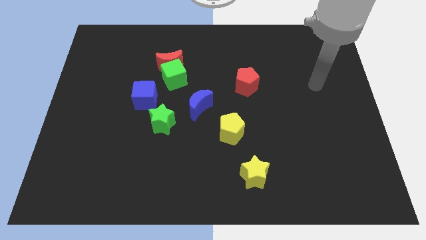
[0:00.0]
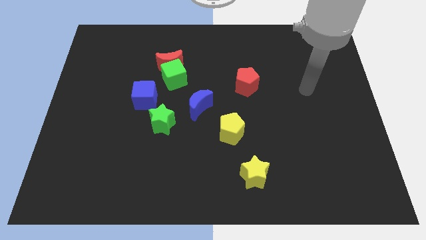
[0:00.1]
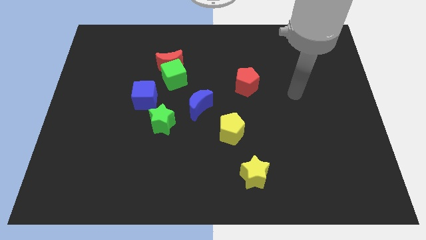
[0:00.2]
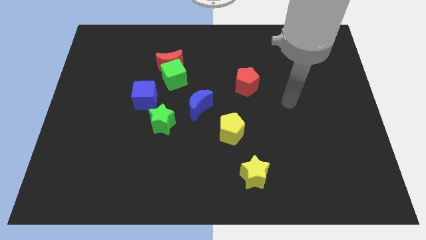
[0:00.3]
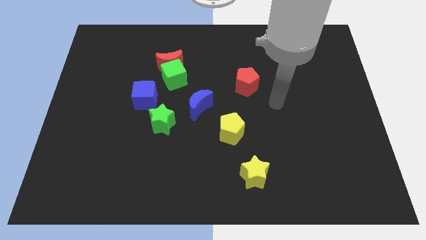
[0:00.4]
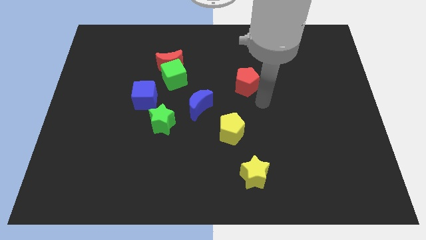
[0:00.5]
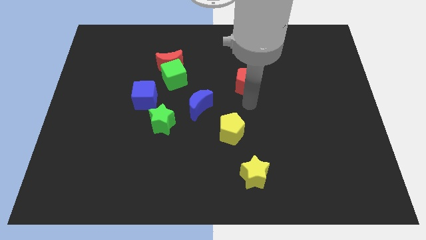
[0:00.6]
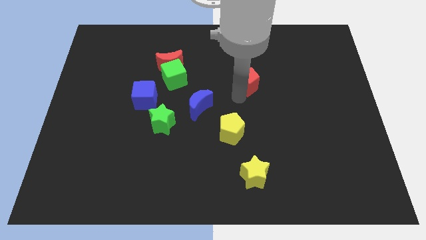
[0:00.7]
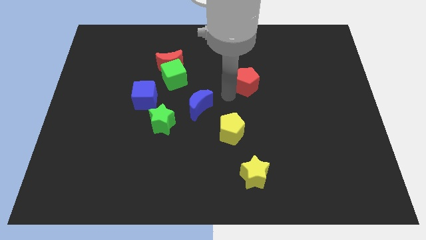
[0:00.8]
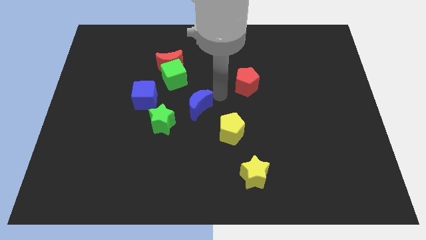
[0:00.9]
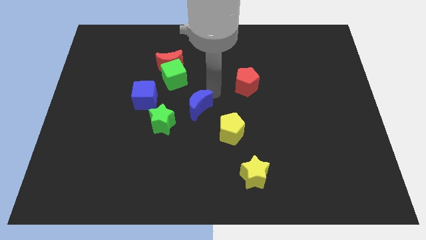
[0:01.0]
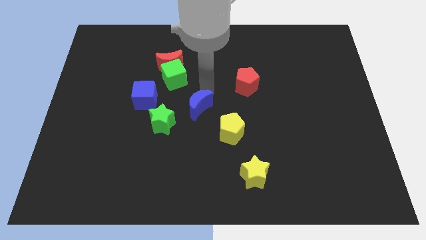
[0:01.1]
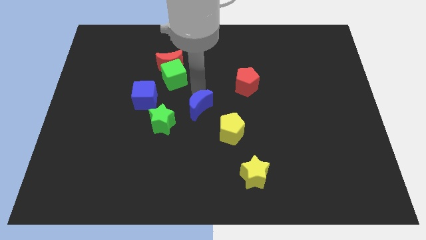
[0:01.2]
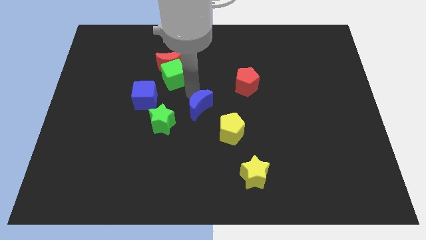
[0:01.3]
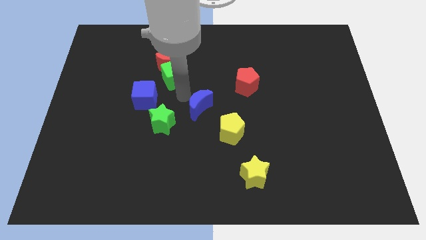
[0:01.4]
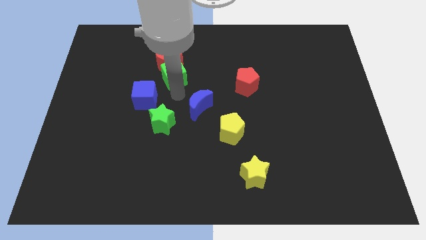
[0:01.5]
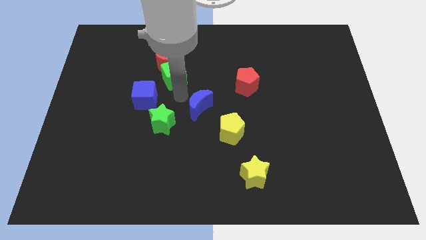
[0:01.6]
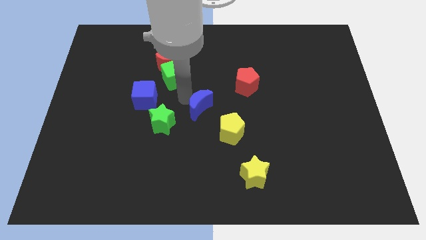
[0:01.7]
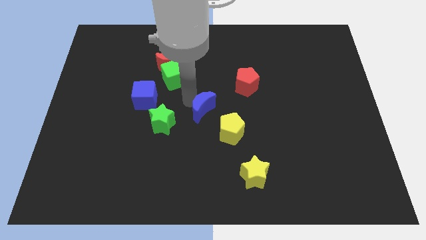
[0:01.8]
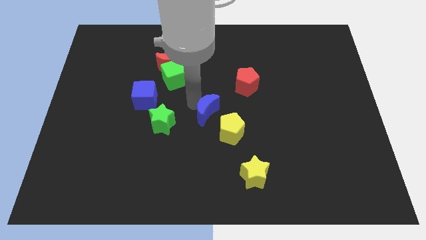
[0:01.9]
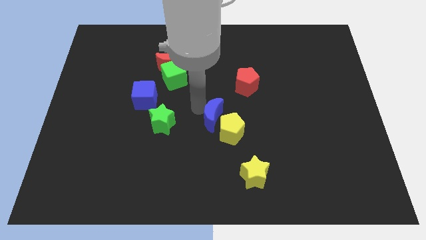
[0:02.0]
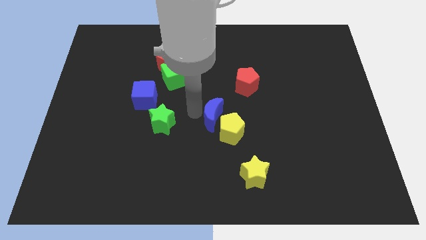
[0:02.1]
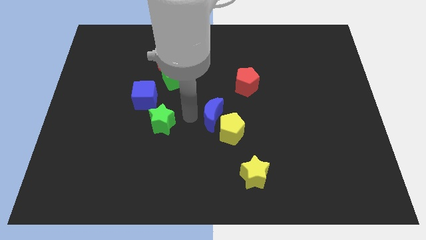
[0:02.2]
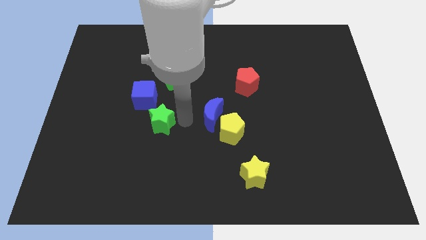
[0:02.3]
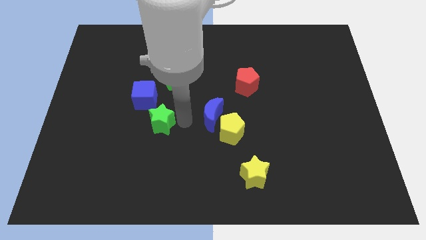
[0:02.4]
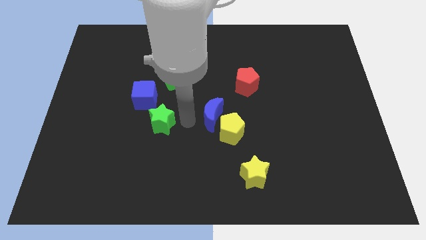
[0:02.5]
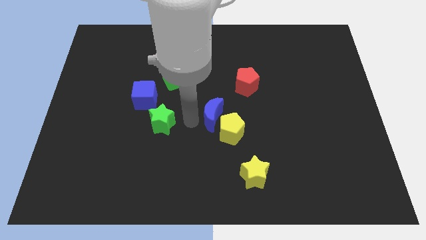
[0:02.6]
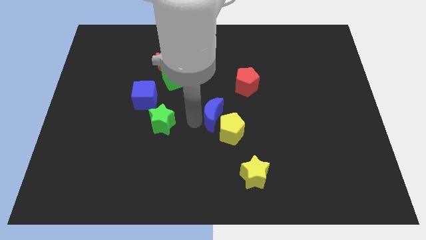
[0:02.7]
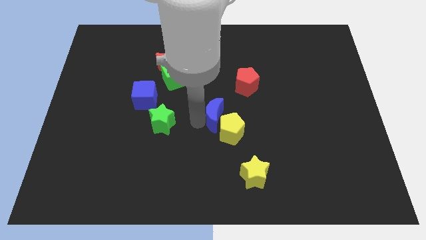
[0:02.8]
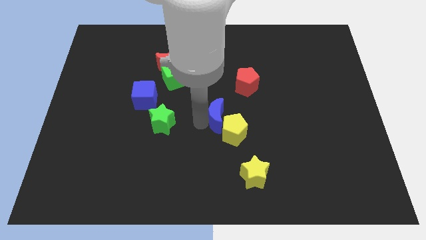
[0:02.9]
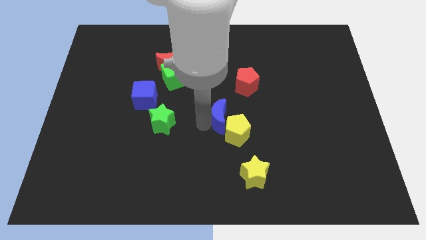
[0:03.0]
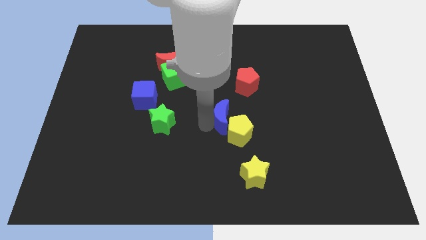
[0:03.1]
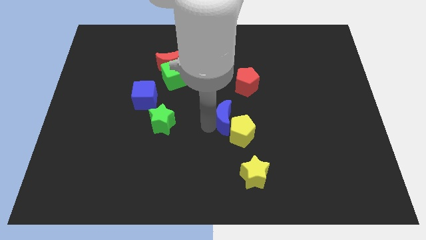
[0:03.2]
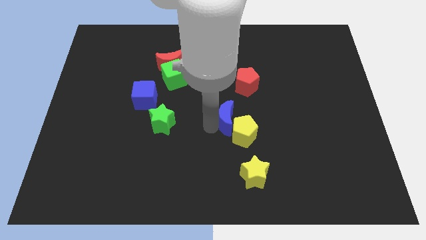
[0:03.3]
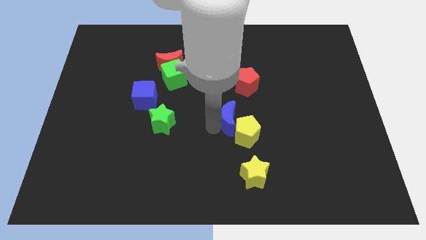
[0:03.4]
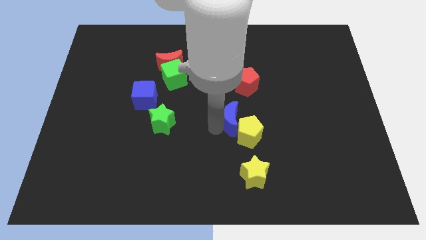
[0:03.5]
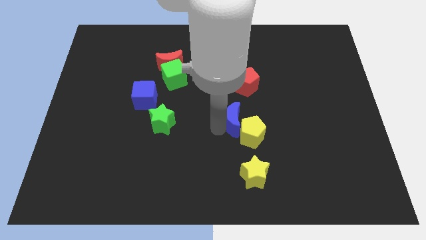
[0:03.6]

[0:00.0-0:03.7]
push the blue moon somewhat to the right

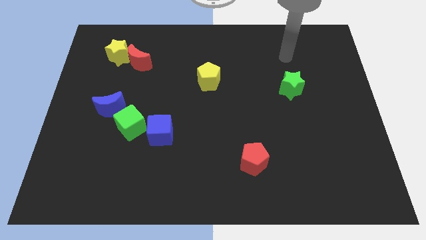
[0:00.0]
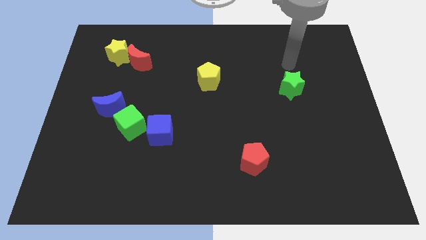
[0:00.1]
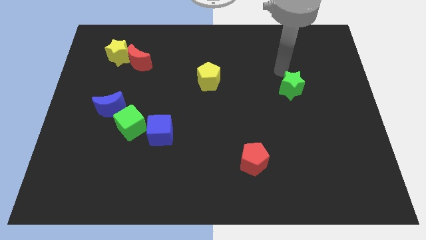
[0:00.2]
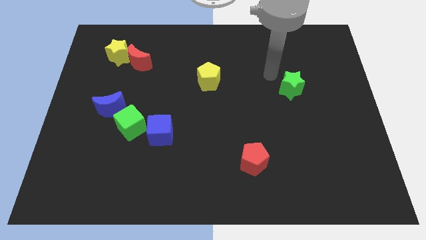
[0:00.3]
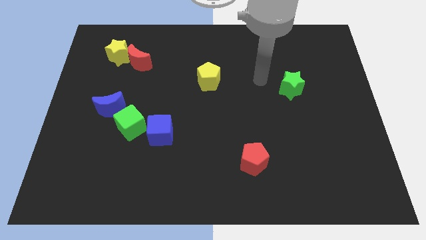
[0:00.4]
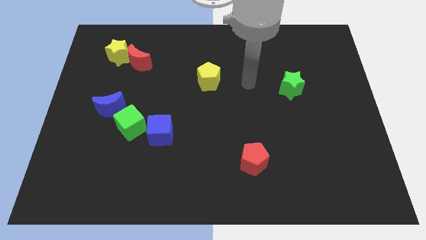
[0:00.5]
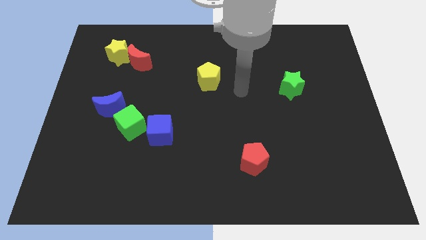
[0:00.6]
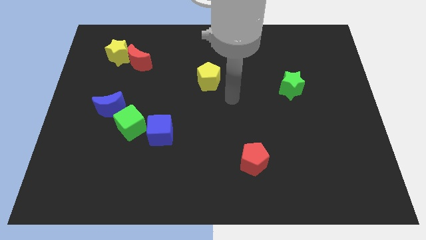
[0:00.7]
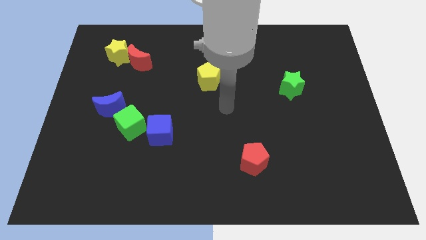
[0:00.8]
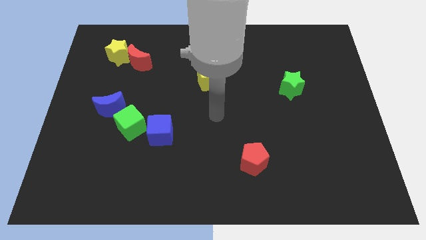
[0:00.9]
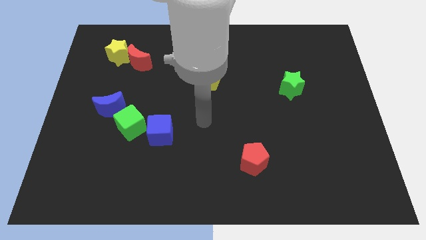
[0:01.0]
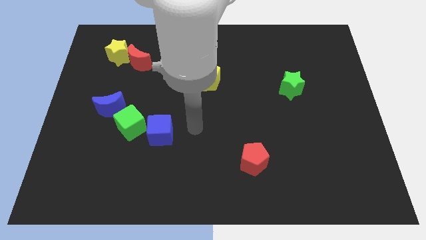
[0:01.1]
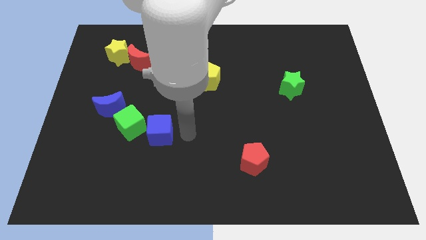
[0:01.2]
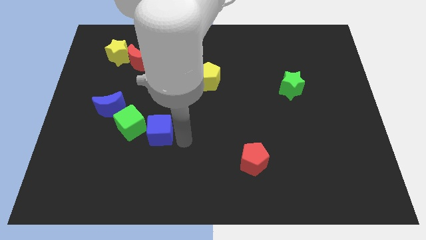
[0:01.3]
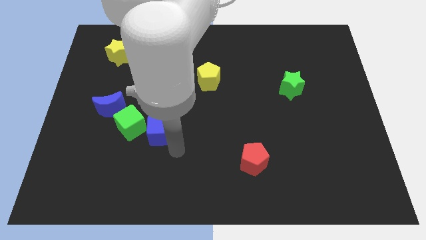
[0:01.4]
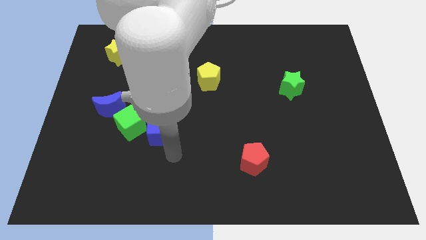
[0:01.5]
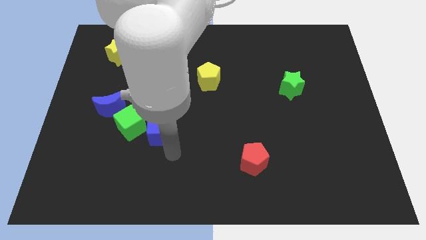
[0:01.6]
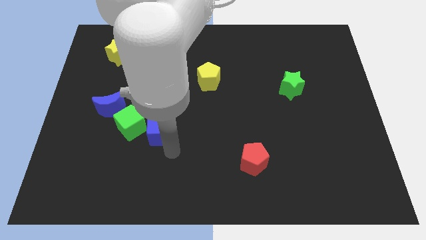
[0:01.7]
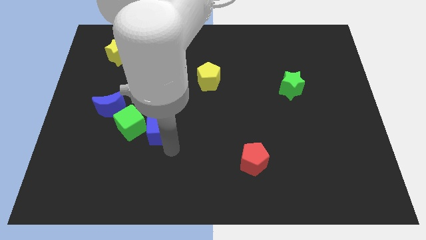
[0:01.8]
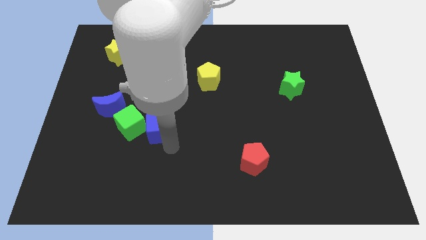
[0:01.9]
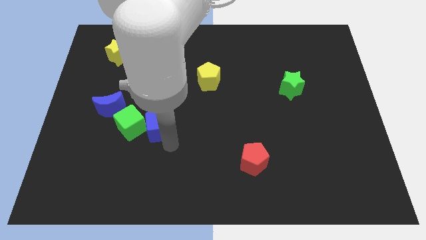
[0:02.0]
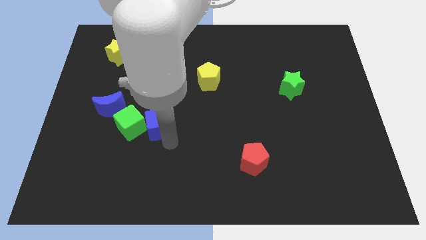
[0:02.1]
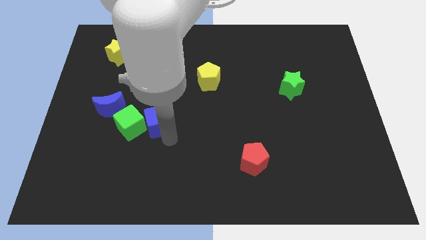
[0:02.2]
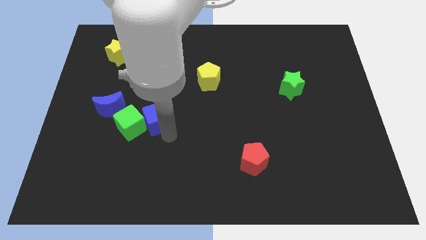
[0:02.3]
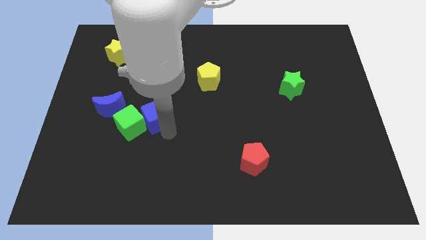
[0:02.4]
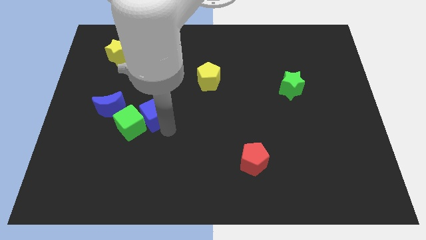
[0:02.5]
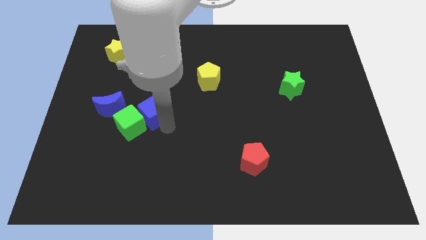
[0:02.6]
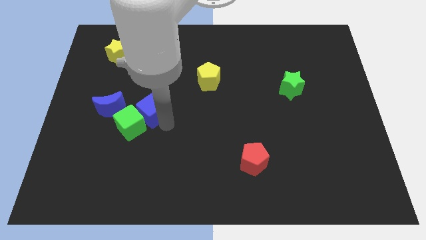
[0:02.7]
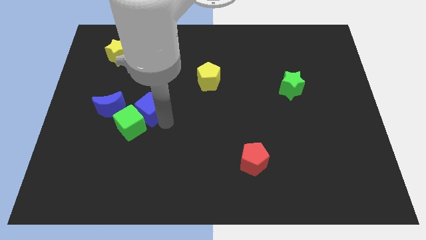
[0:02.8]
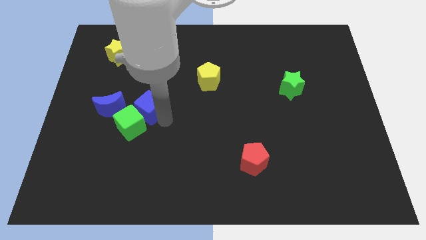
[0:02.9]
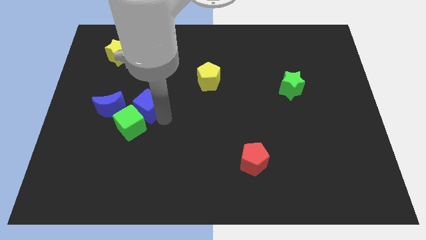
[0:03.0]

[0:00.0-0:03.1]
move the blue cube a little upwards and to the left diagonally

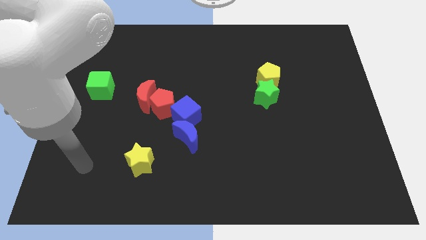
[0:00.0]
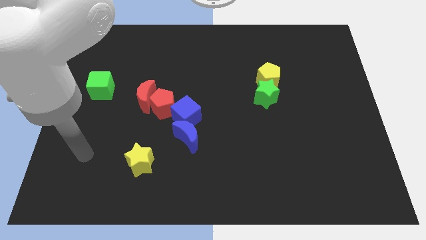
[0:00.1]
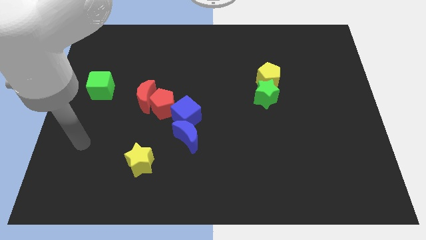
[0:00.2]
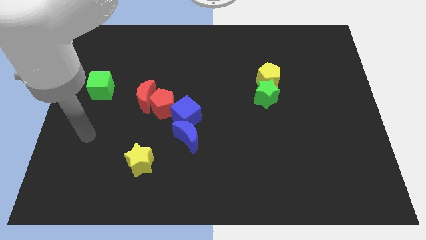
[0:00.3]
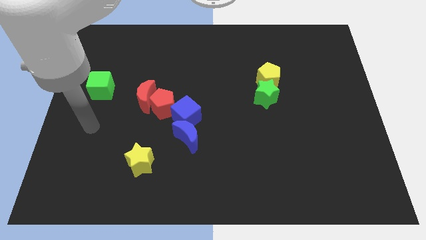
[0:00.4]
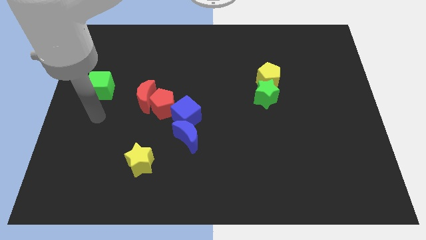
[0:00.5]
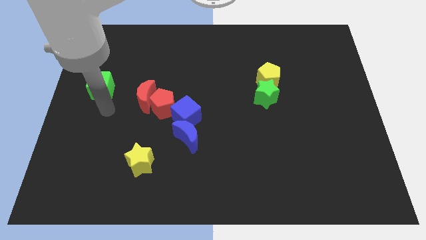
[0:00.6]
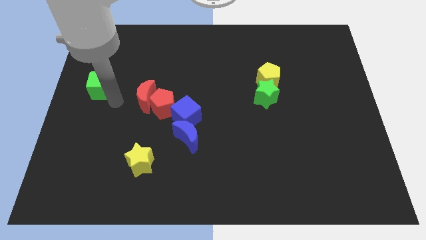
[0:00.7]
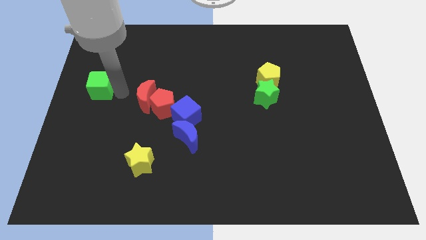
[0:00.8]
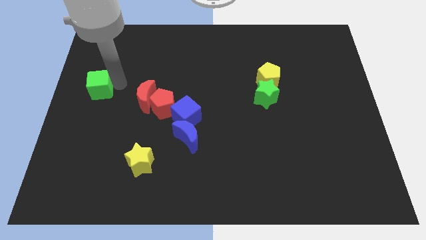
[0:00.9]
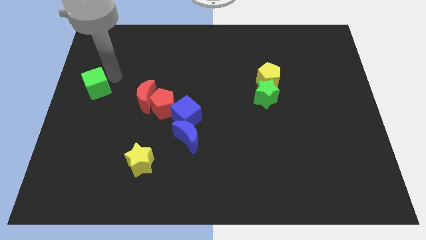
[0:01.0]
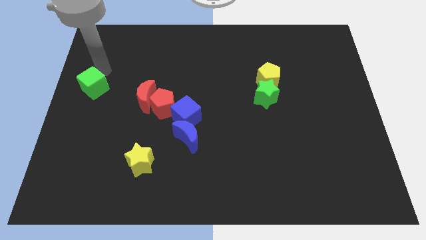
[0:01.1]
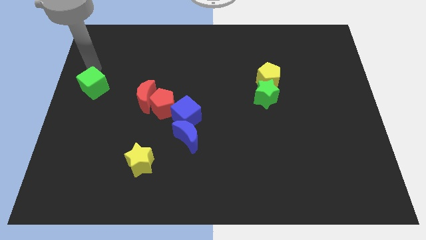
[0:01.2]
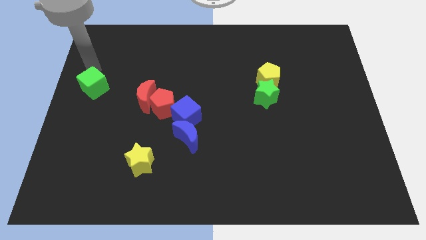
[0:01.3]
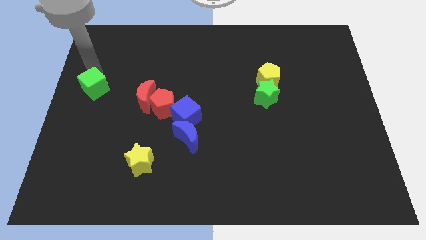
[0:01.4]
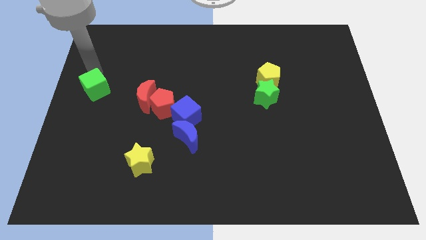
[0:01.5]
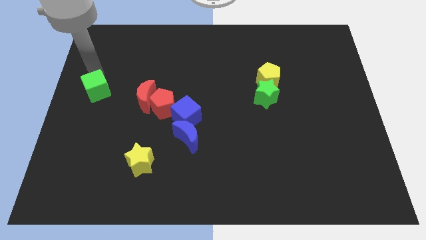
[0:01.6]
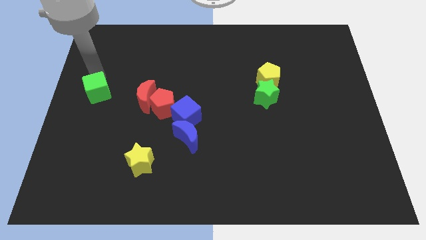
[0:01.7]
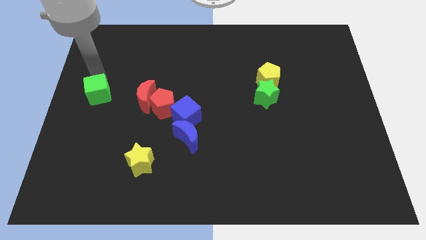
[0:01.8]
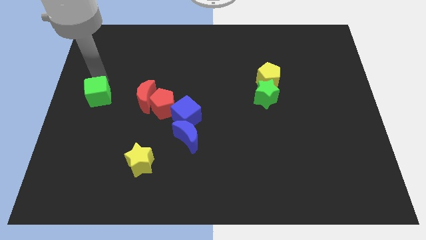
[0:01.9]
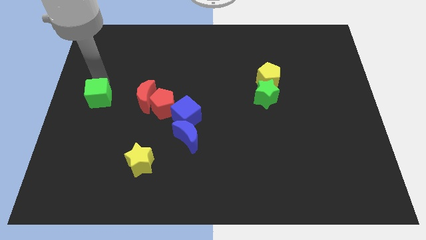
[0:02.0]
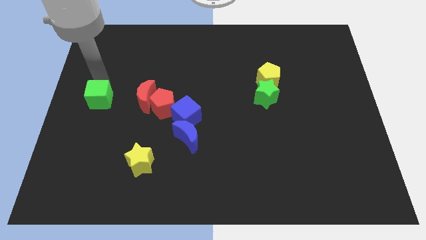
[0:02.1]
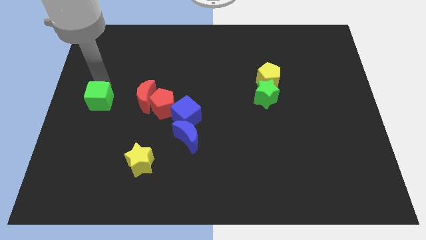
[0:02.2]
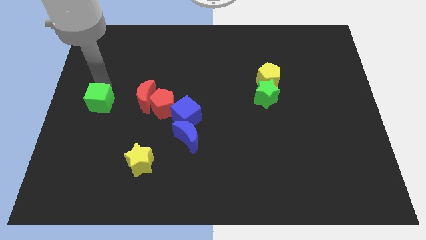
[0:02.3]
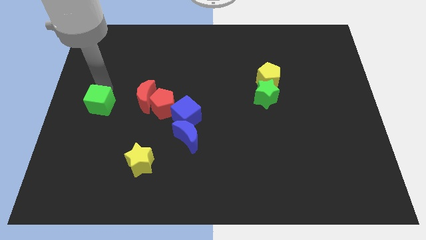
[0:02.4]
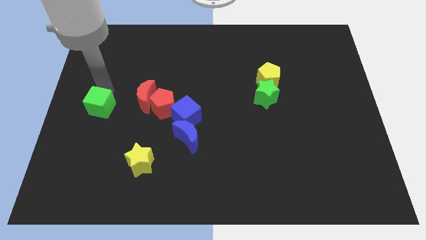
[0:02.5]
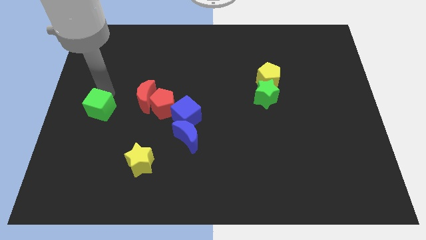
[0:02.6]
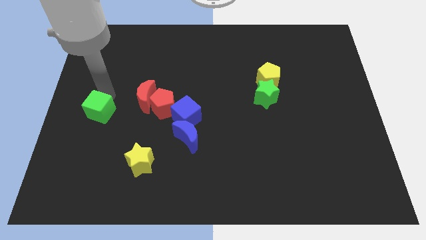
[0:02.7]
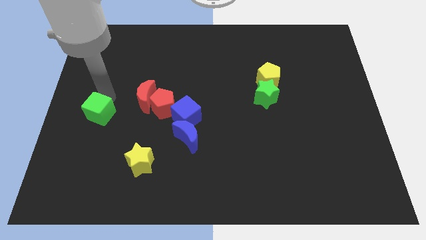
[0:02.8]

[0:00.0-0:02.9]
slightly slide the green cube down
